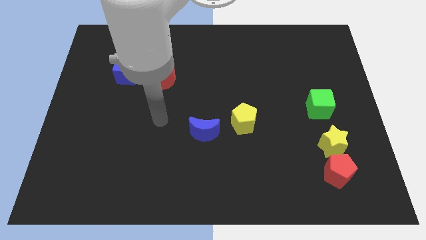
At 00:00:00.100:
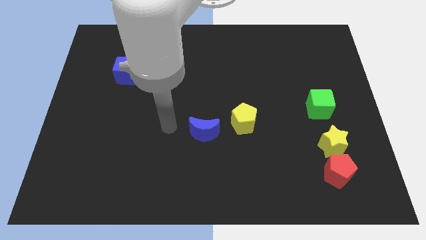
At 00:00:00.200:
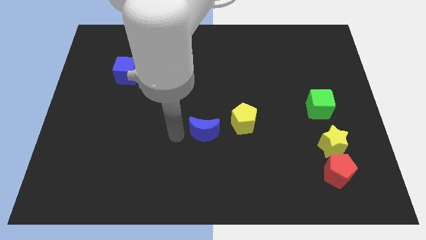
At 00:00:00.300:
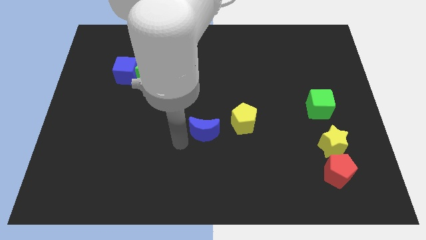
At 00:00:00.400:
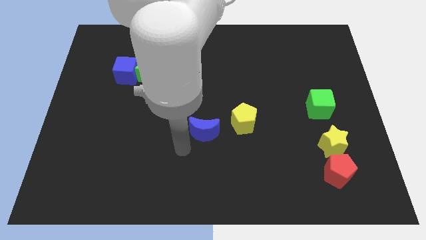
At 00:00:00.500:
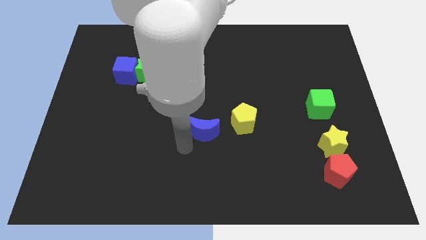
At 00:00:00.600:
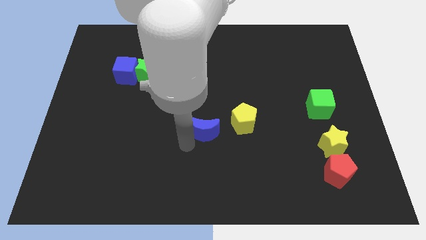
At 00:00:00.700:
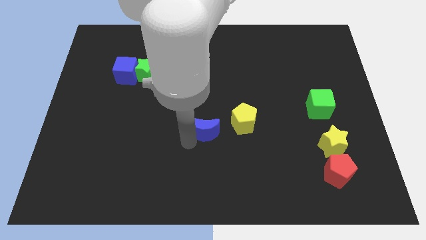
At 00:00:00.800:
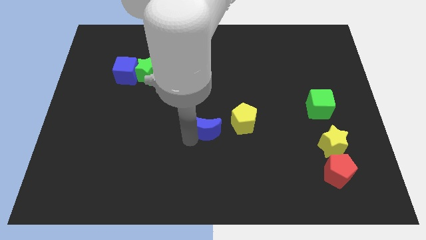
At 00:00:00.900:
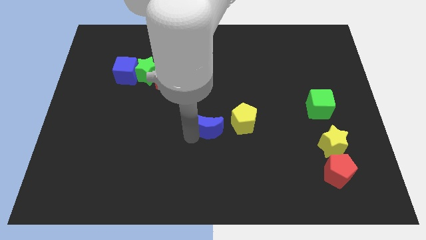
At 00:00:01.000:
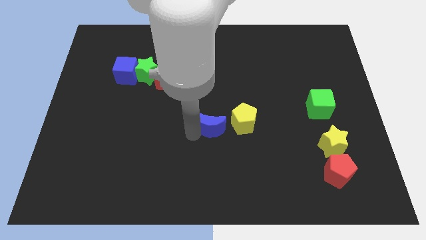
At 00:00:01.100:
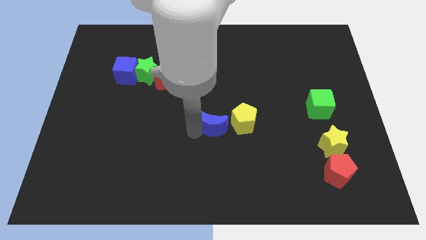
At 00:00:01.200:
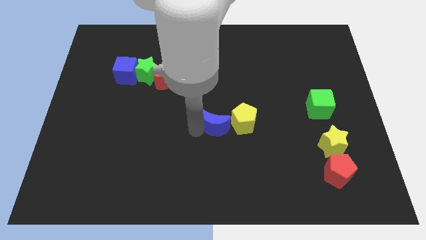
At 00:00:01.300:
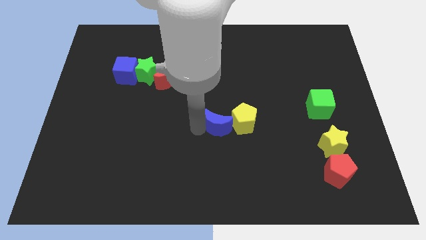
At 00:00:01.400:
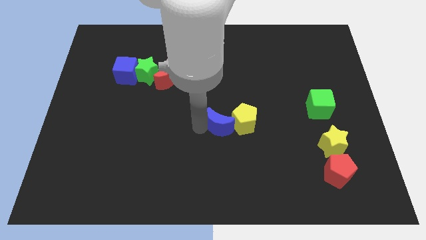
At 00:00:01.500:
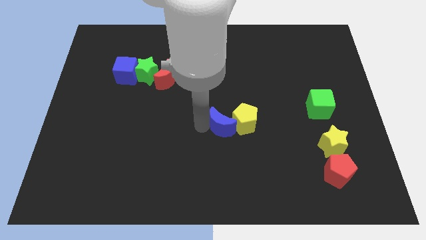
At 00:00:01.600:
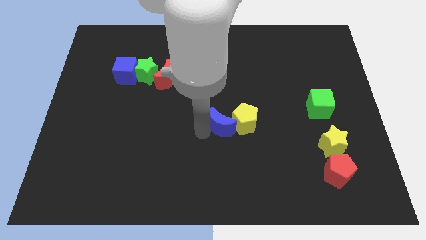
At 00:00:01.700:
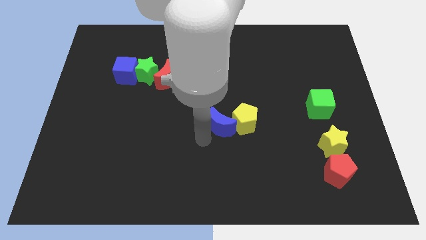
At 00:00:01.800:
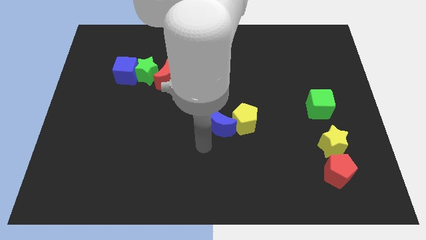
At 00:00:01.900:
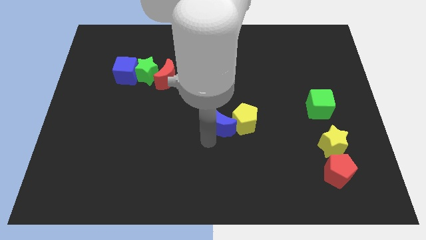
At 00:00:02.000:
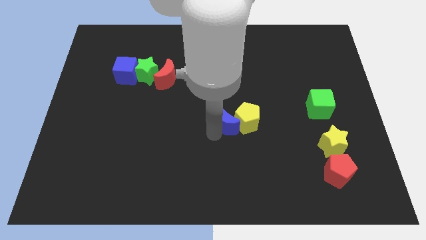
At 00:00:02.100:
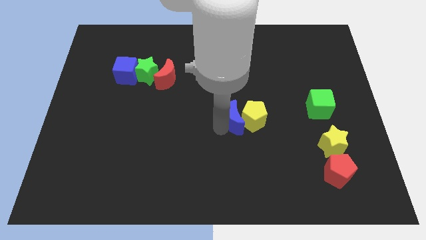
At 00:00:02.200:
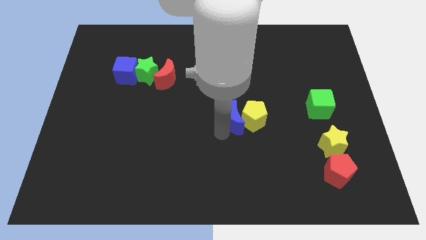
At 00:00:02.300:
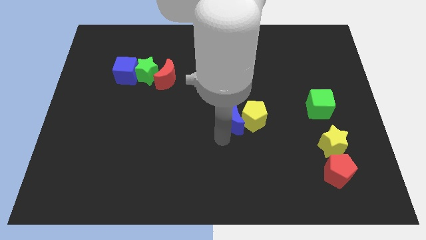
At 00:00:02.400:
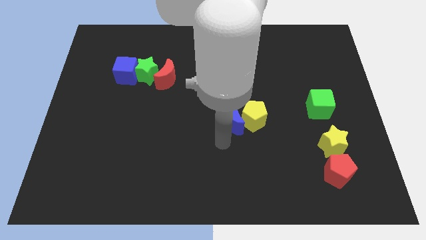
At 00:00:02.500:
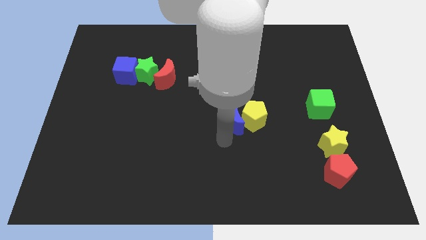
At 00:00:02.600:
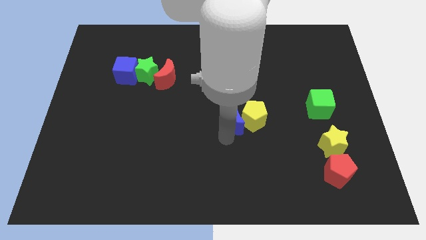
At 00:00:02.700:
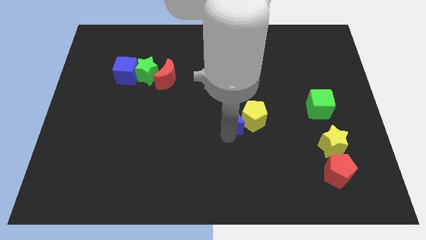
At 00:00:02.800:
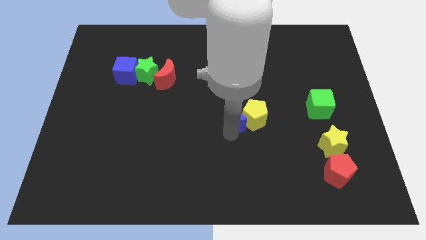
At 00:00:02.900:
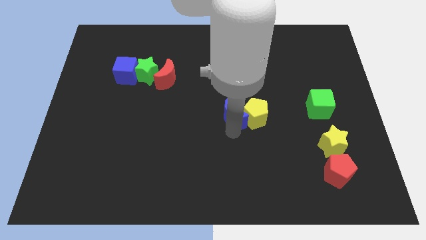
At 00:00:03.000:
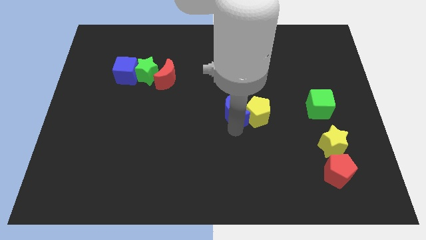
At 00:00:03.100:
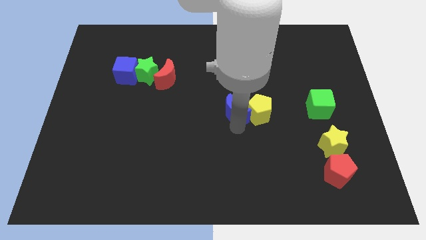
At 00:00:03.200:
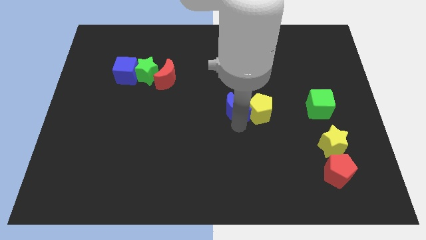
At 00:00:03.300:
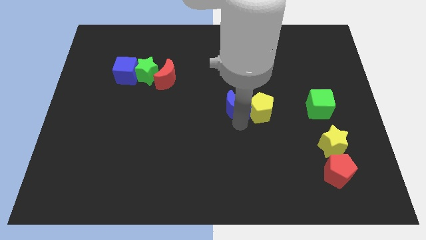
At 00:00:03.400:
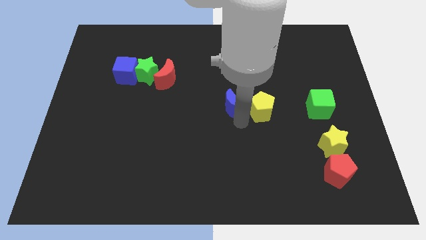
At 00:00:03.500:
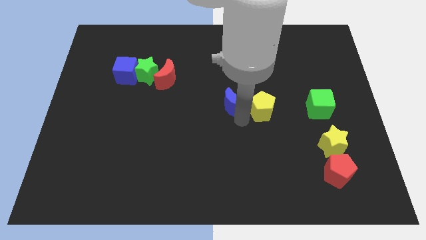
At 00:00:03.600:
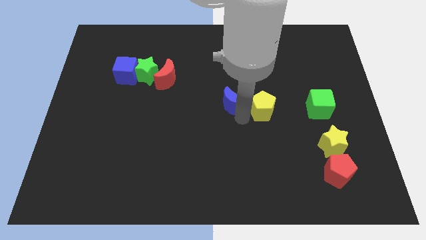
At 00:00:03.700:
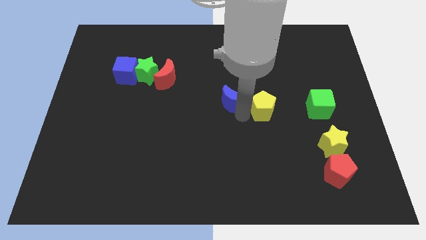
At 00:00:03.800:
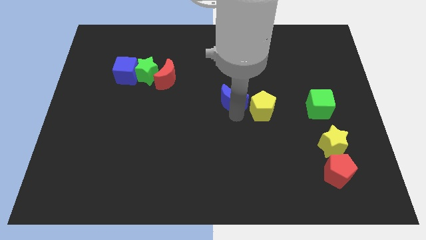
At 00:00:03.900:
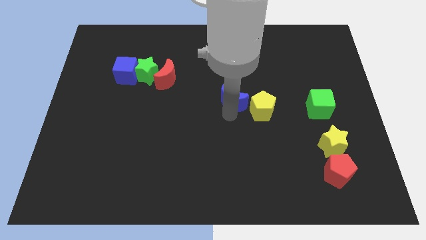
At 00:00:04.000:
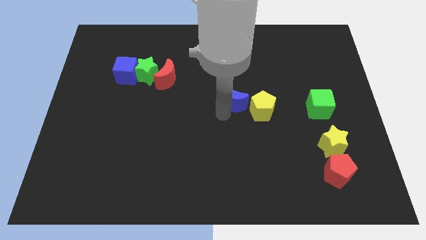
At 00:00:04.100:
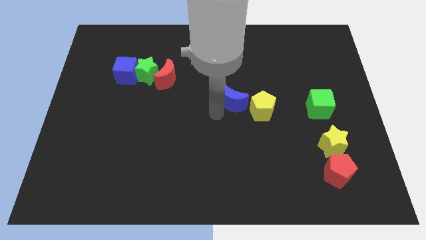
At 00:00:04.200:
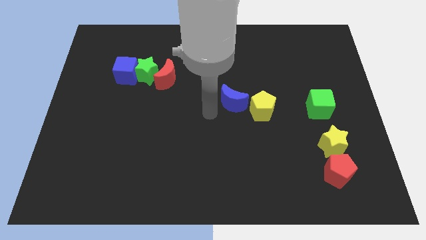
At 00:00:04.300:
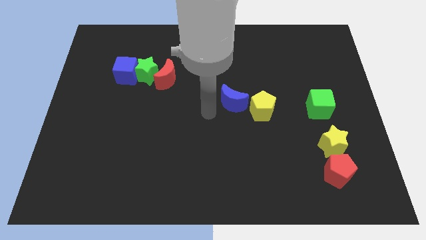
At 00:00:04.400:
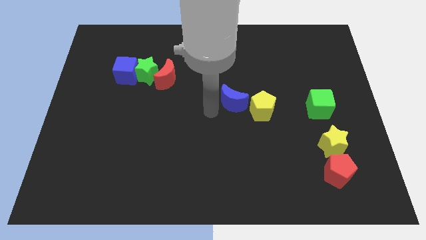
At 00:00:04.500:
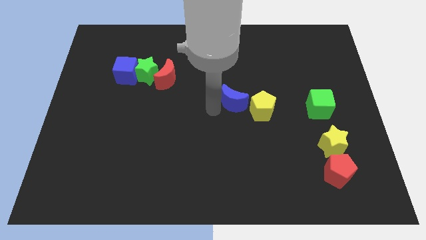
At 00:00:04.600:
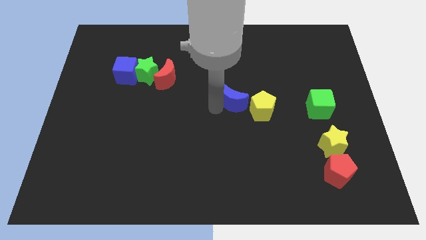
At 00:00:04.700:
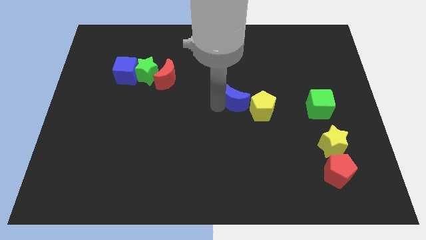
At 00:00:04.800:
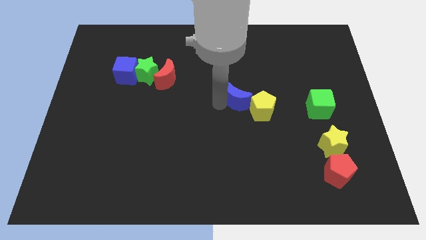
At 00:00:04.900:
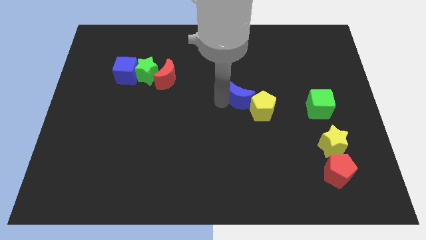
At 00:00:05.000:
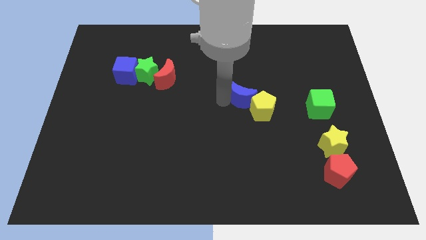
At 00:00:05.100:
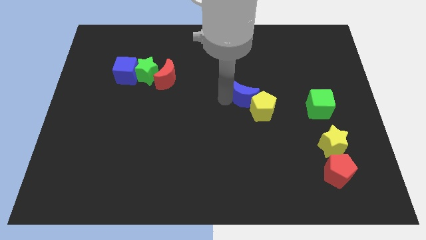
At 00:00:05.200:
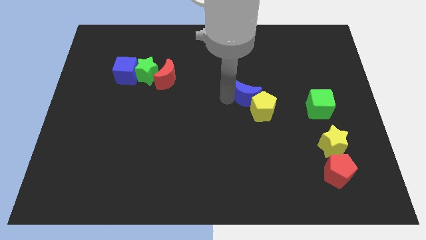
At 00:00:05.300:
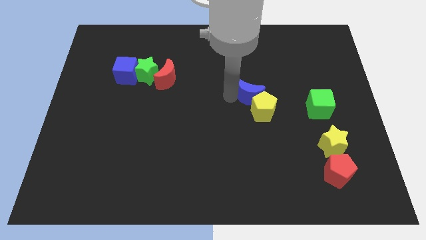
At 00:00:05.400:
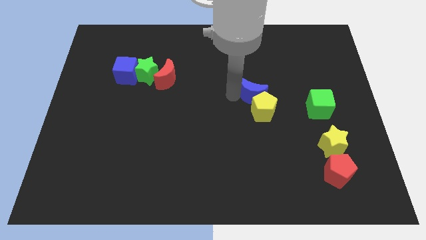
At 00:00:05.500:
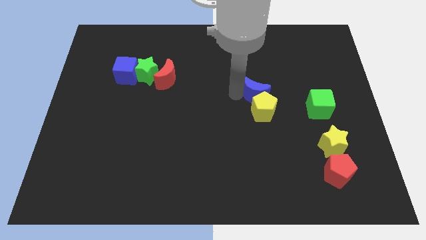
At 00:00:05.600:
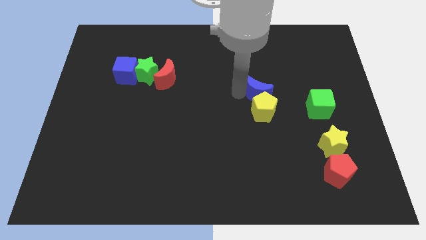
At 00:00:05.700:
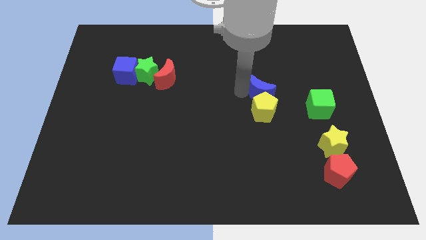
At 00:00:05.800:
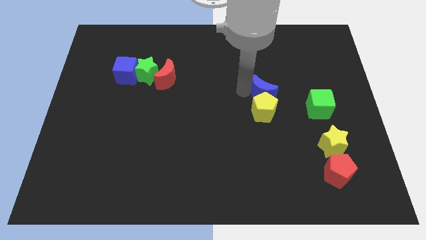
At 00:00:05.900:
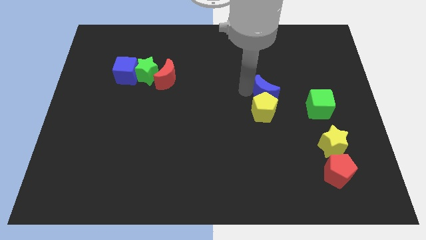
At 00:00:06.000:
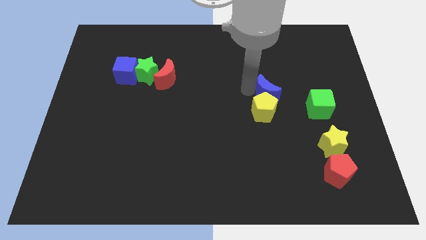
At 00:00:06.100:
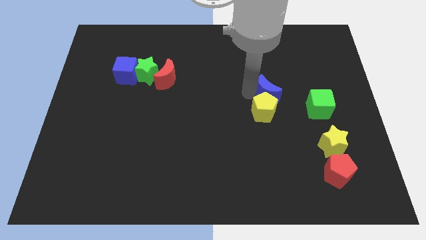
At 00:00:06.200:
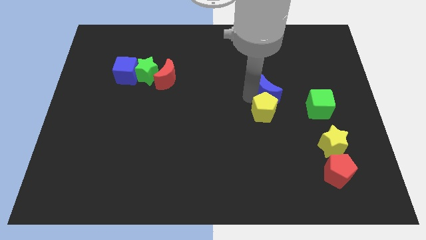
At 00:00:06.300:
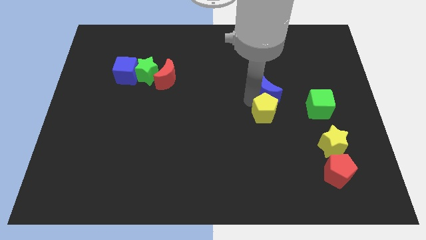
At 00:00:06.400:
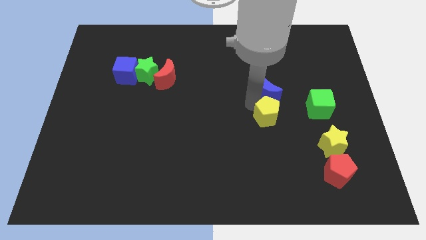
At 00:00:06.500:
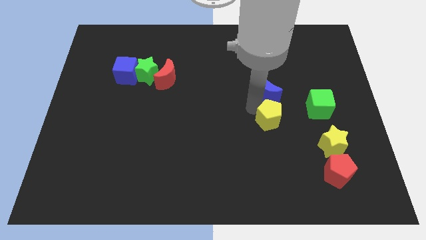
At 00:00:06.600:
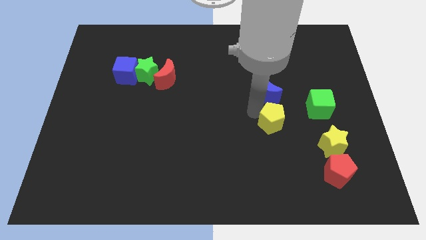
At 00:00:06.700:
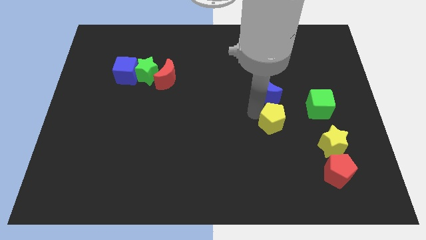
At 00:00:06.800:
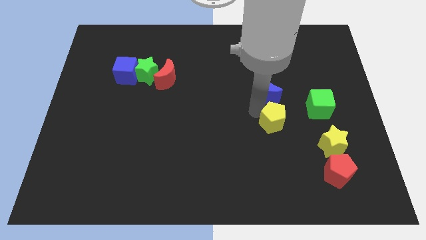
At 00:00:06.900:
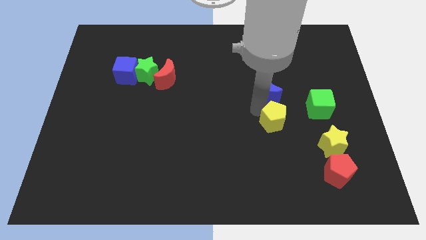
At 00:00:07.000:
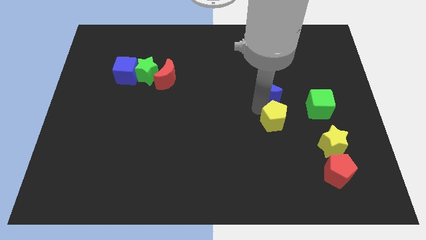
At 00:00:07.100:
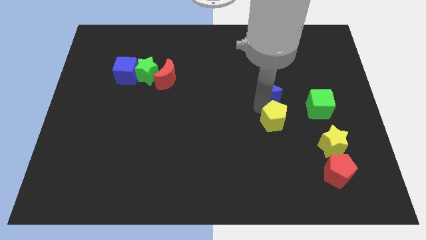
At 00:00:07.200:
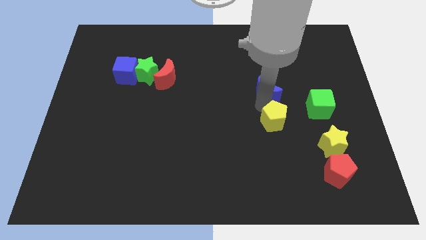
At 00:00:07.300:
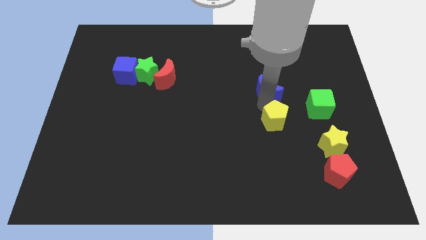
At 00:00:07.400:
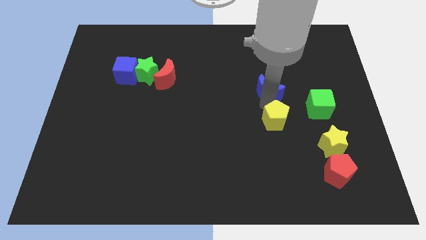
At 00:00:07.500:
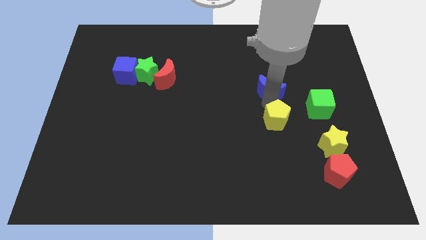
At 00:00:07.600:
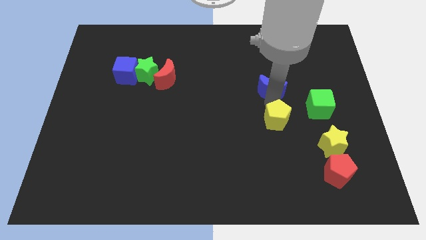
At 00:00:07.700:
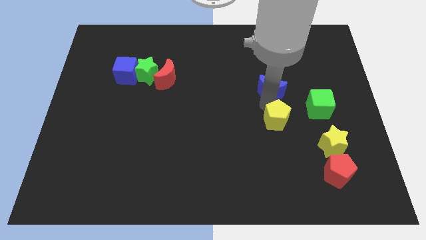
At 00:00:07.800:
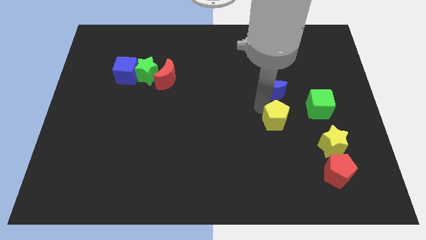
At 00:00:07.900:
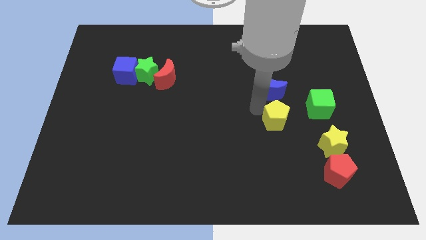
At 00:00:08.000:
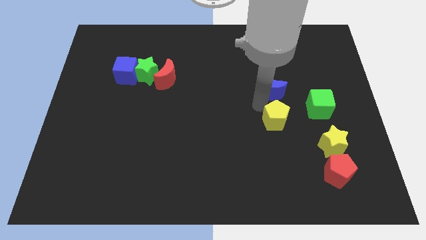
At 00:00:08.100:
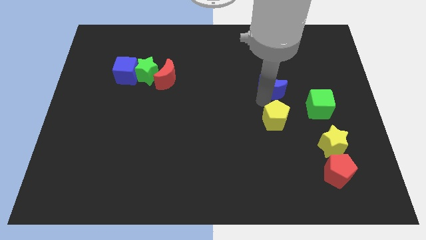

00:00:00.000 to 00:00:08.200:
slide the blue moon diagonally upwards and to the right
